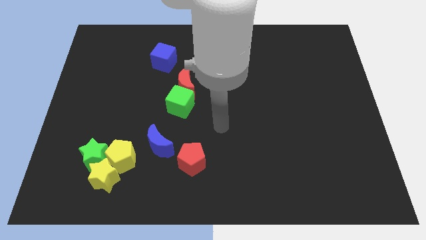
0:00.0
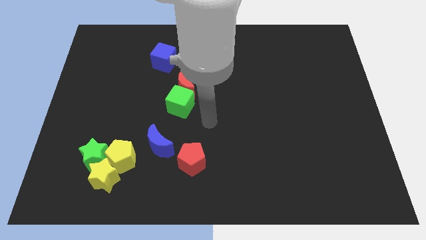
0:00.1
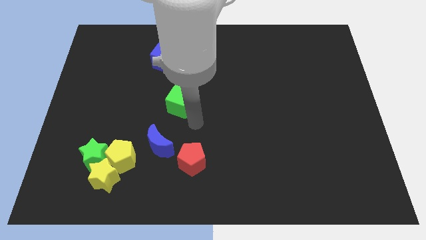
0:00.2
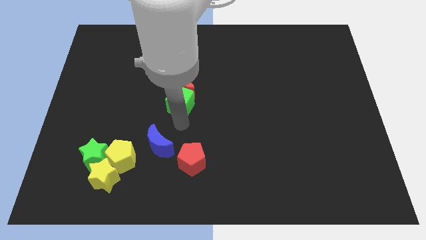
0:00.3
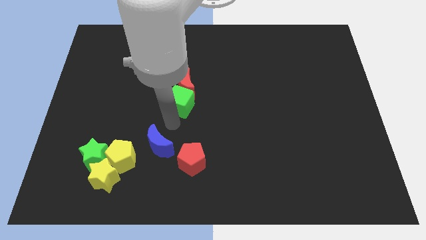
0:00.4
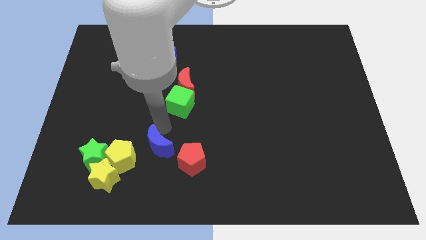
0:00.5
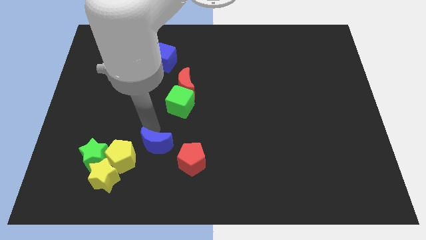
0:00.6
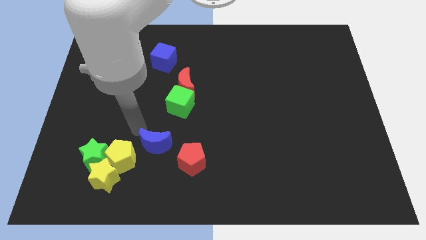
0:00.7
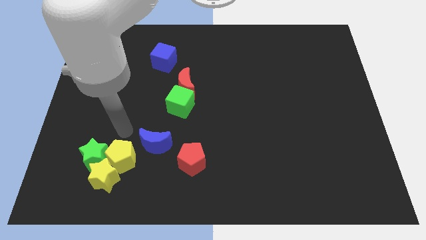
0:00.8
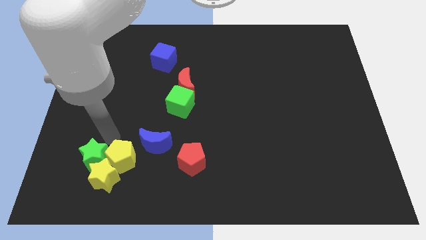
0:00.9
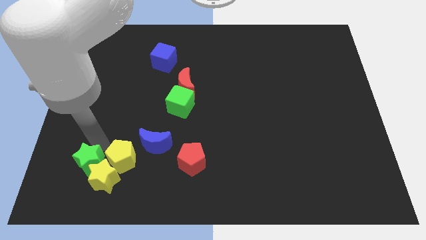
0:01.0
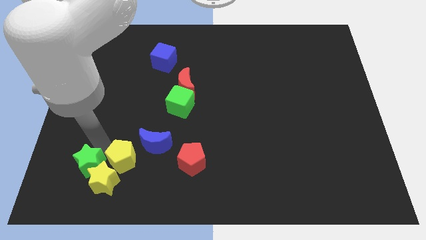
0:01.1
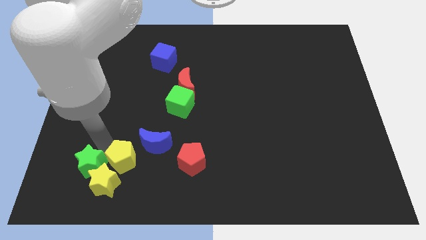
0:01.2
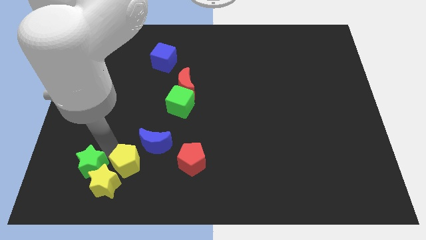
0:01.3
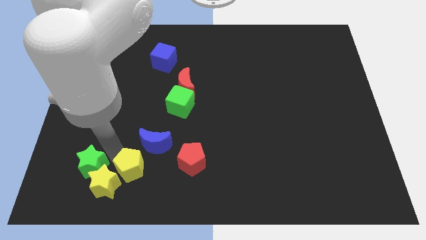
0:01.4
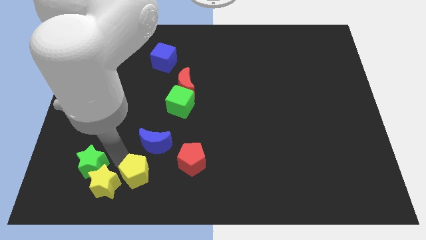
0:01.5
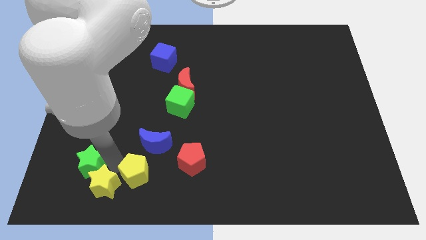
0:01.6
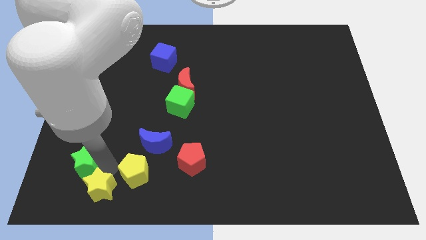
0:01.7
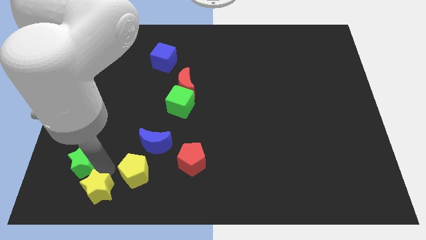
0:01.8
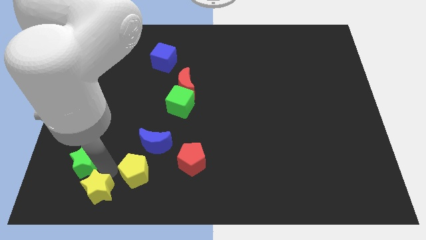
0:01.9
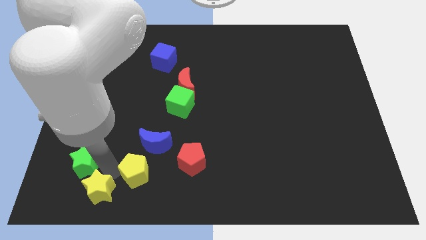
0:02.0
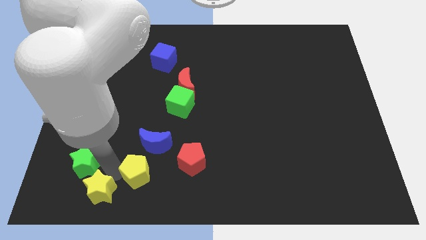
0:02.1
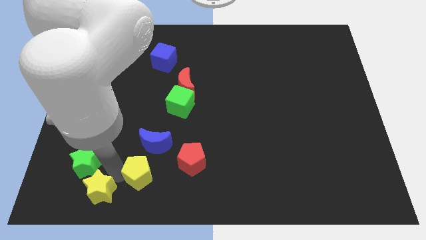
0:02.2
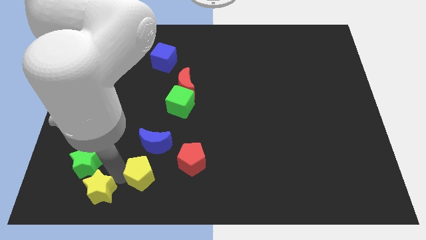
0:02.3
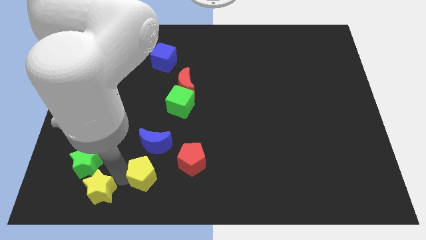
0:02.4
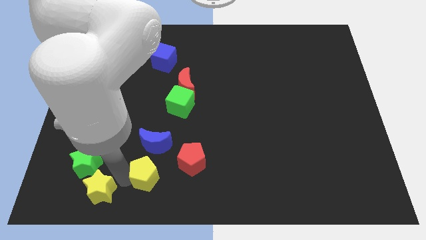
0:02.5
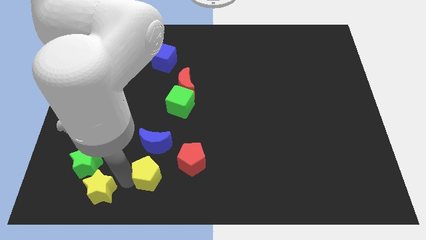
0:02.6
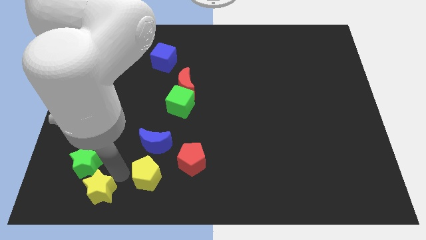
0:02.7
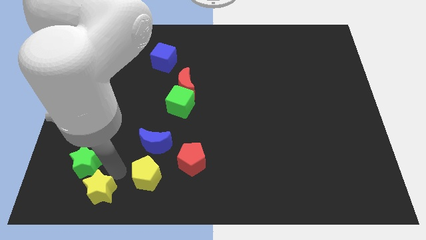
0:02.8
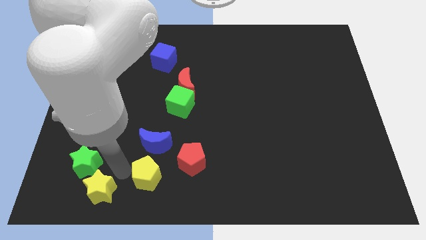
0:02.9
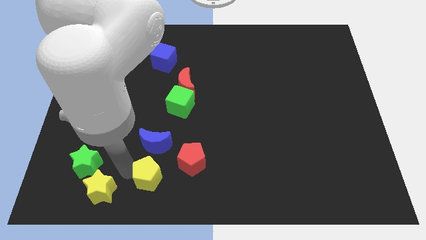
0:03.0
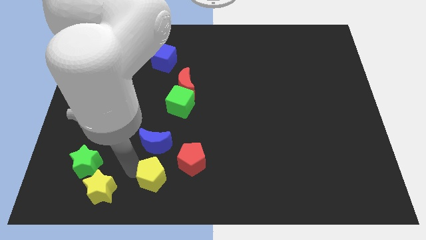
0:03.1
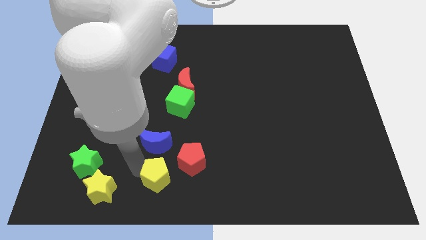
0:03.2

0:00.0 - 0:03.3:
slide the yellow pentagon a little to the right

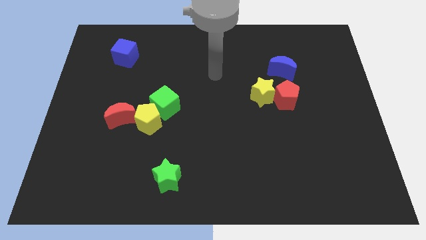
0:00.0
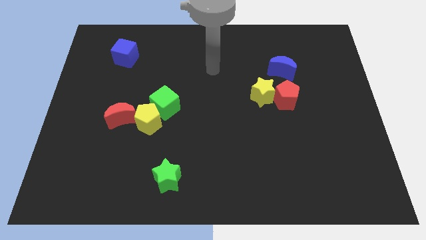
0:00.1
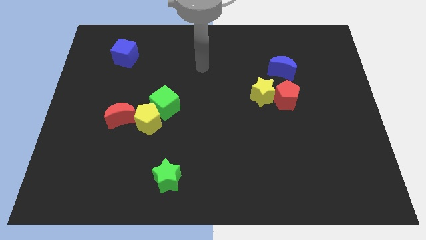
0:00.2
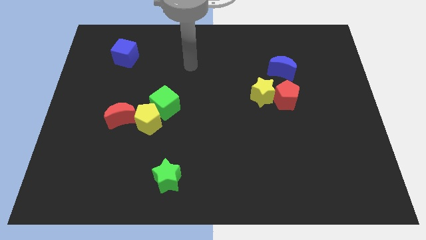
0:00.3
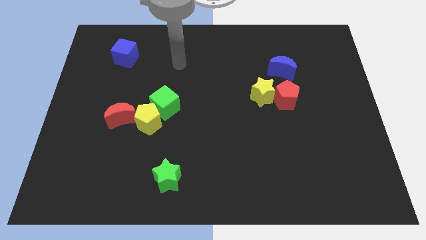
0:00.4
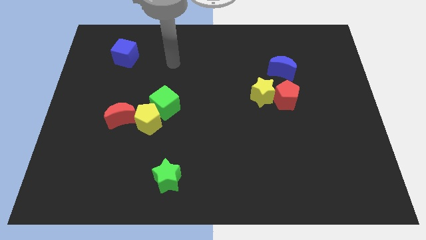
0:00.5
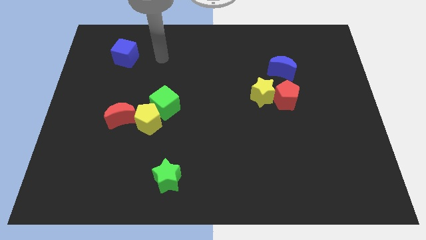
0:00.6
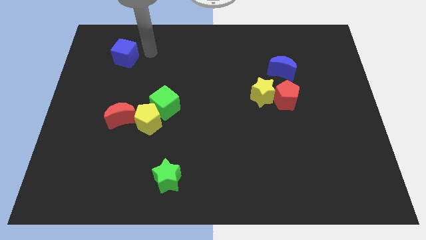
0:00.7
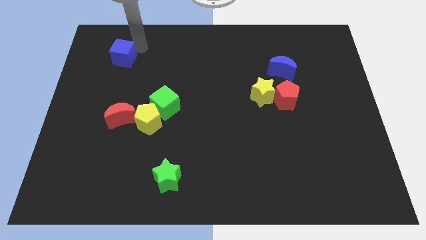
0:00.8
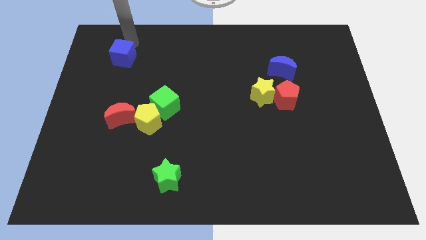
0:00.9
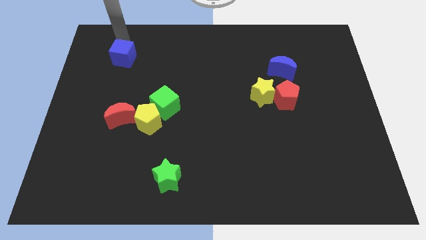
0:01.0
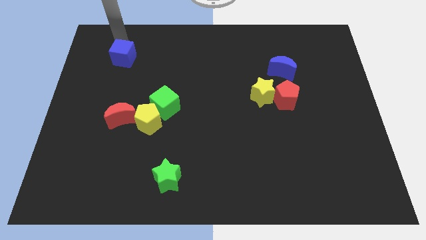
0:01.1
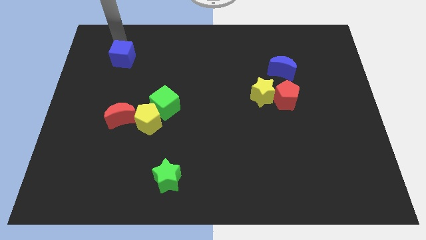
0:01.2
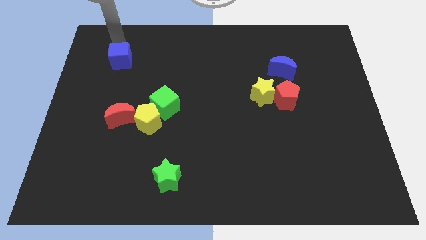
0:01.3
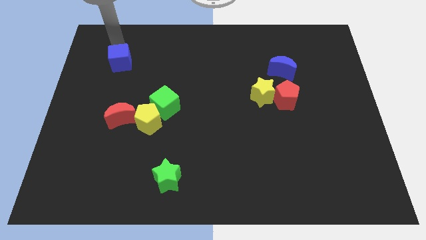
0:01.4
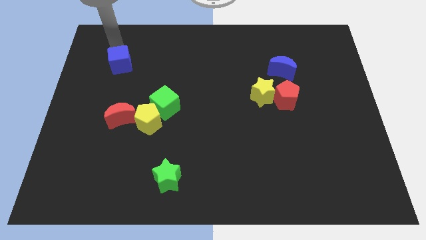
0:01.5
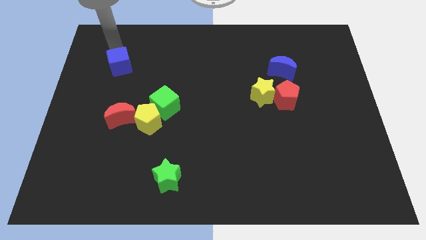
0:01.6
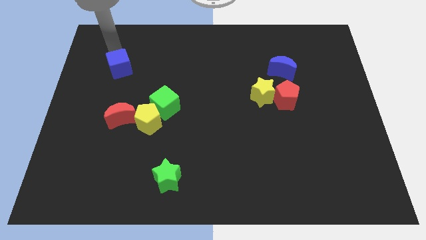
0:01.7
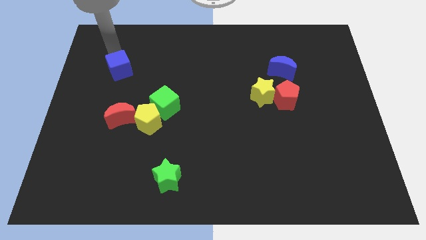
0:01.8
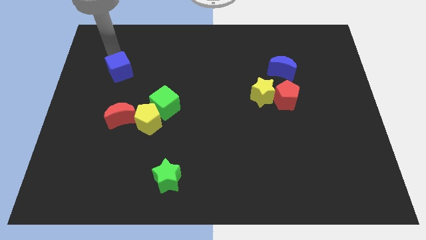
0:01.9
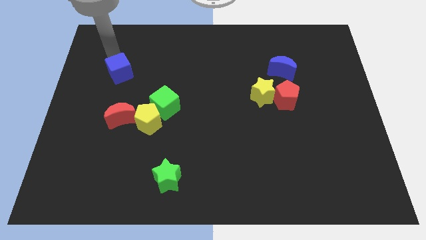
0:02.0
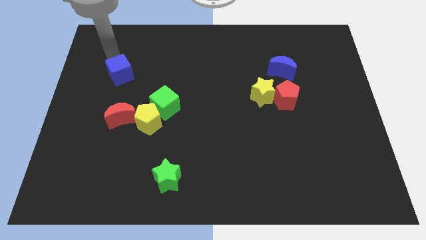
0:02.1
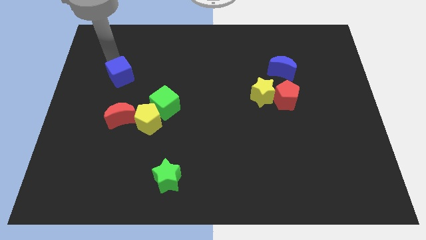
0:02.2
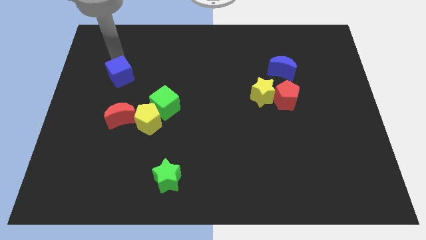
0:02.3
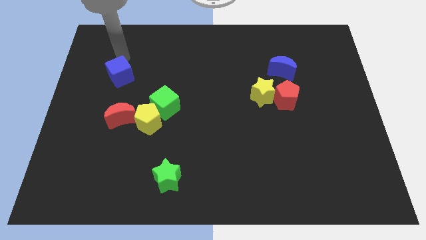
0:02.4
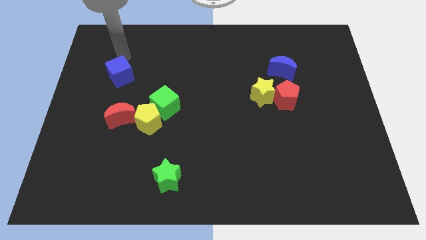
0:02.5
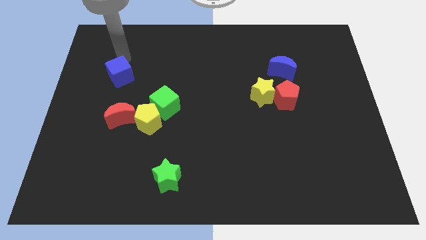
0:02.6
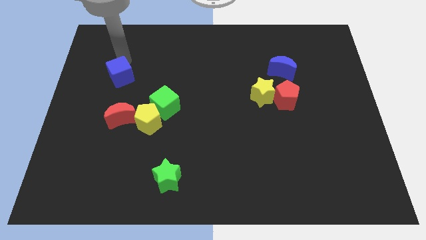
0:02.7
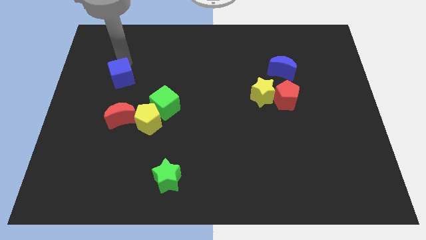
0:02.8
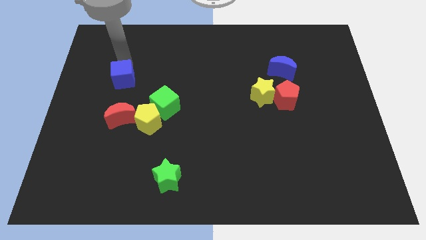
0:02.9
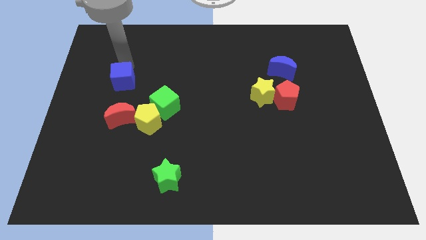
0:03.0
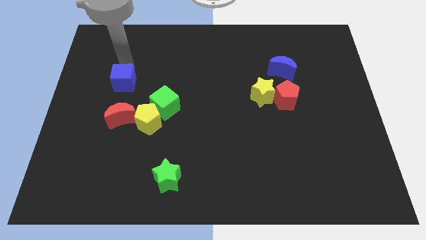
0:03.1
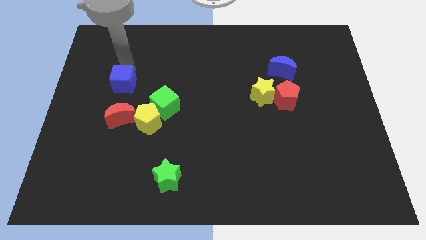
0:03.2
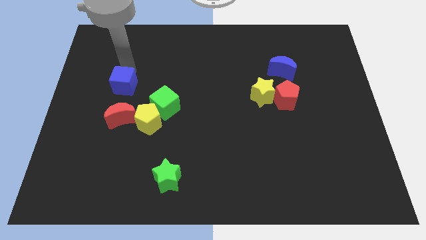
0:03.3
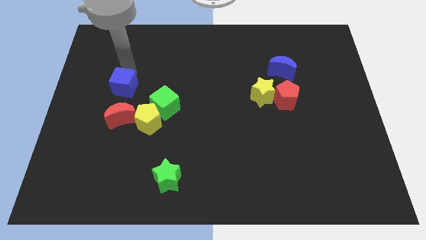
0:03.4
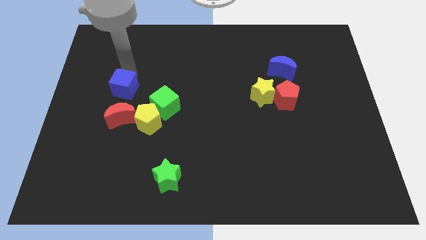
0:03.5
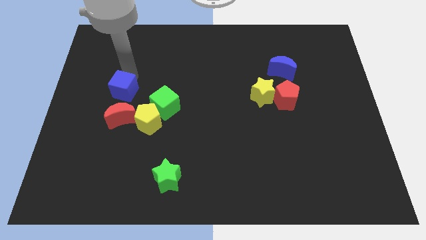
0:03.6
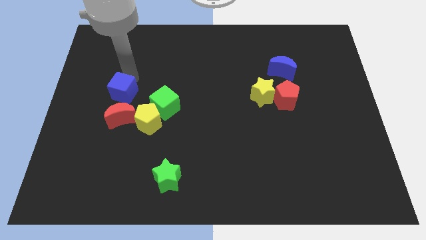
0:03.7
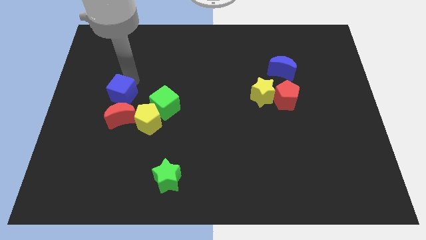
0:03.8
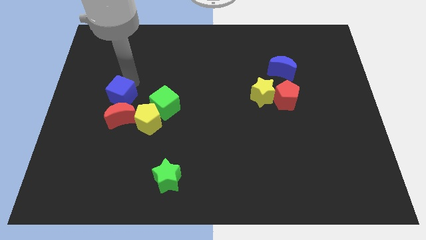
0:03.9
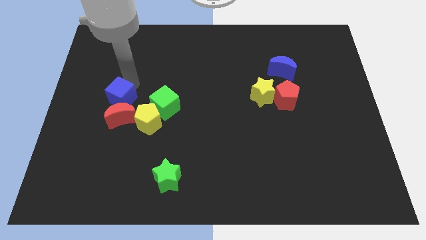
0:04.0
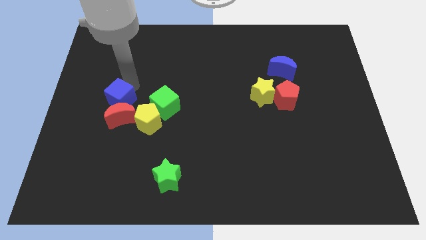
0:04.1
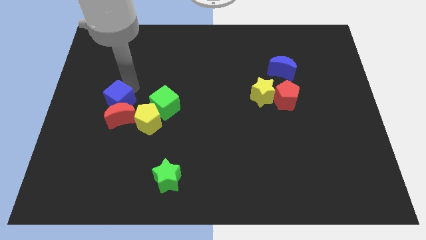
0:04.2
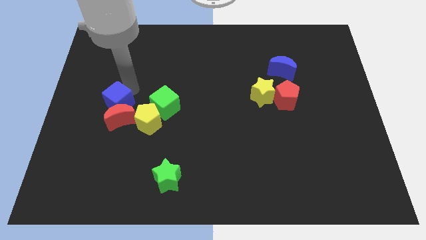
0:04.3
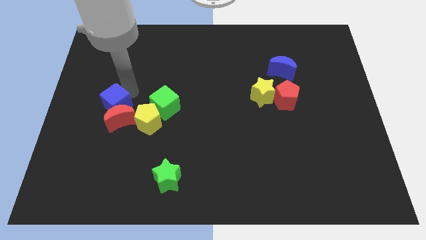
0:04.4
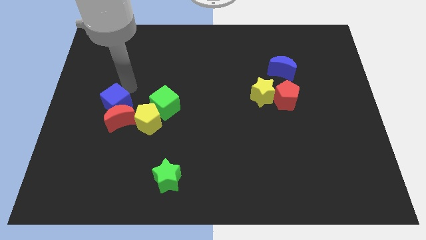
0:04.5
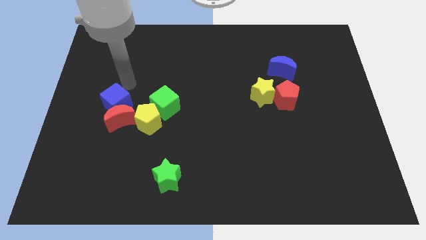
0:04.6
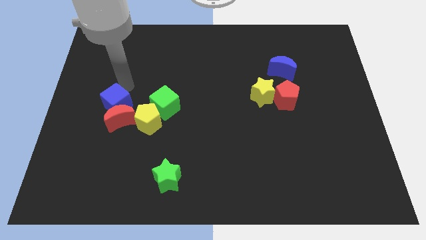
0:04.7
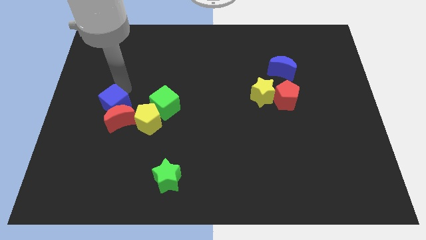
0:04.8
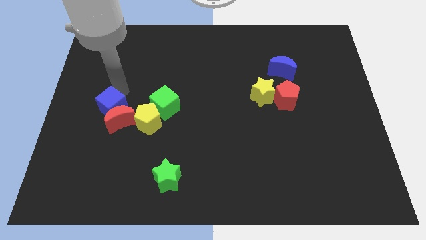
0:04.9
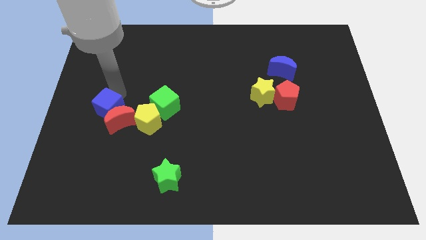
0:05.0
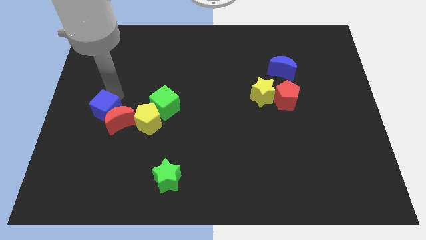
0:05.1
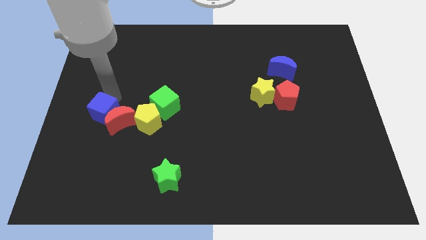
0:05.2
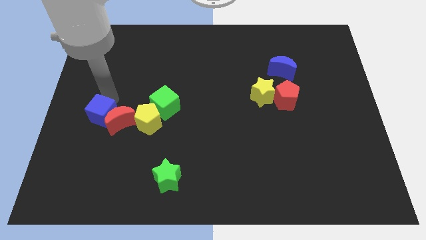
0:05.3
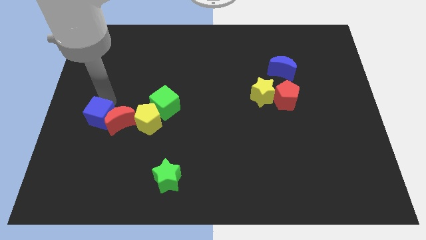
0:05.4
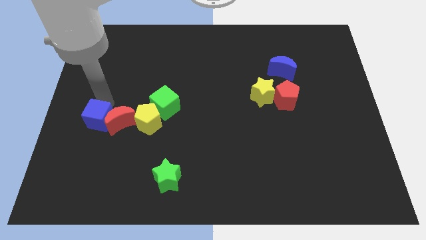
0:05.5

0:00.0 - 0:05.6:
push the blue cube downwards
